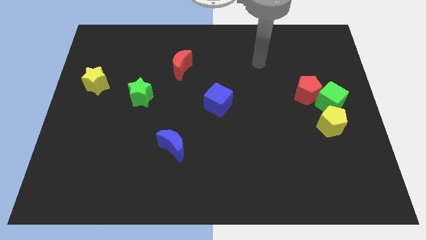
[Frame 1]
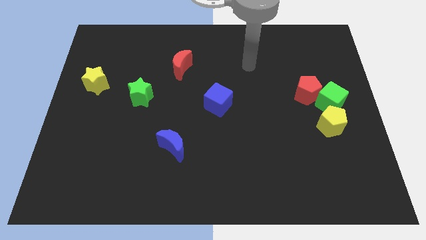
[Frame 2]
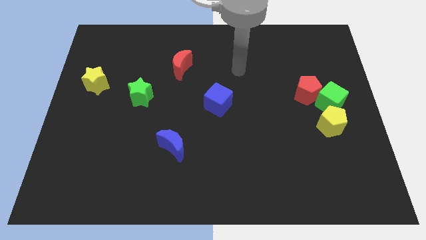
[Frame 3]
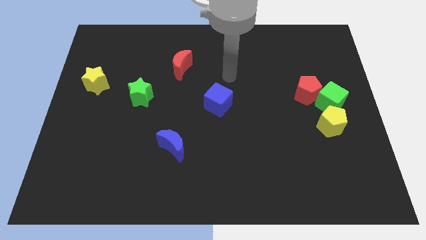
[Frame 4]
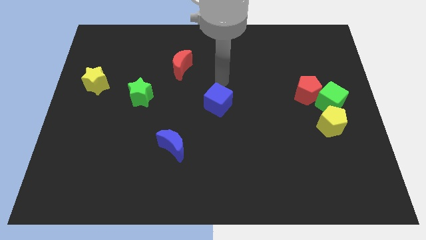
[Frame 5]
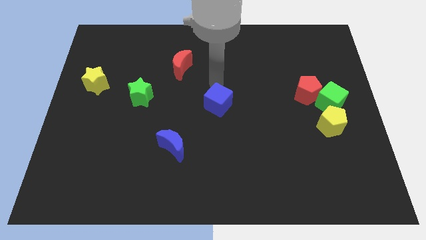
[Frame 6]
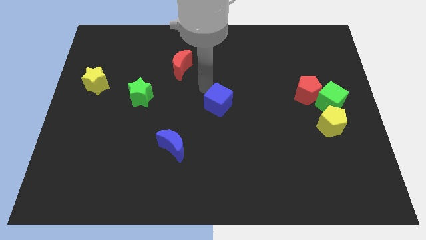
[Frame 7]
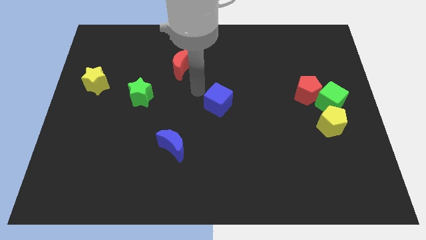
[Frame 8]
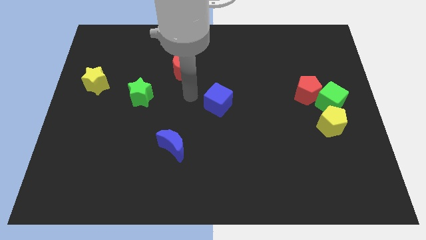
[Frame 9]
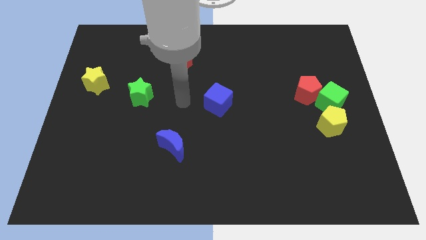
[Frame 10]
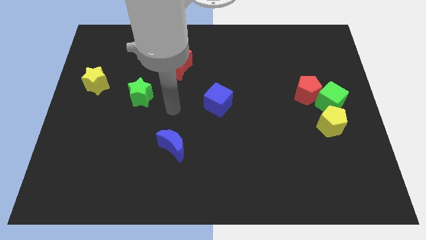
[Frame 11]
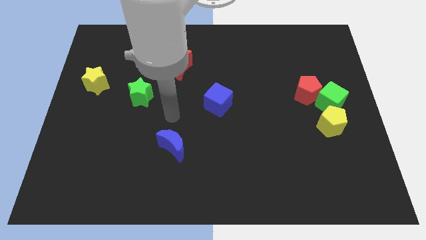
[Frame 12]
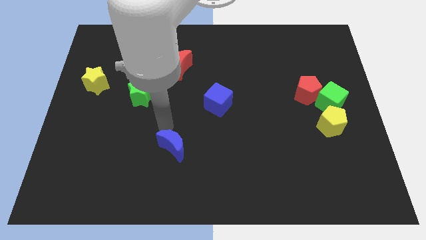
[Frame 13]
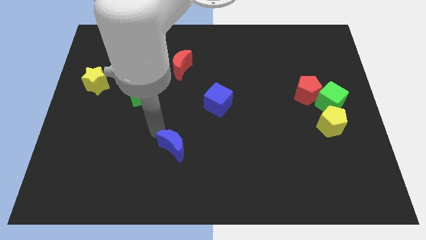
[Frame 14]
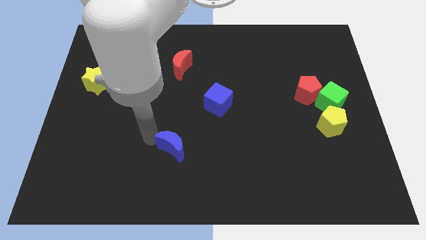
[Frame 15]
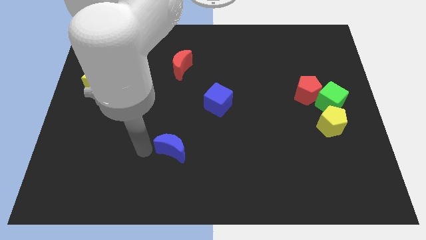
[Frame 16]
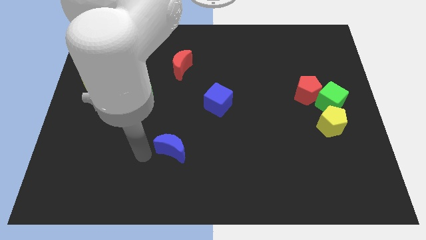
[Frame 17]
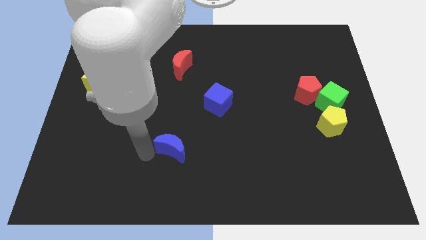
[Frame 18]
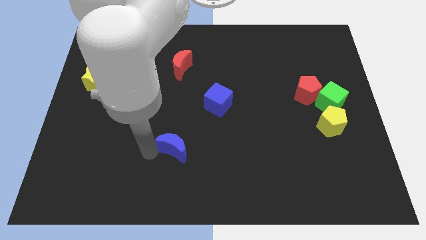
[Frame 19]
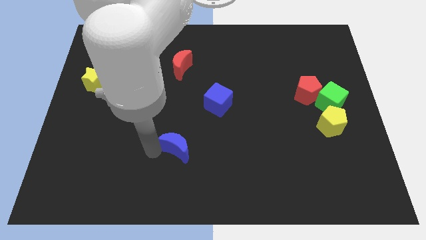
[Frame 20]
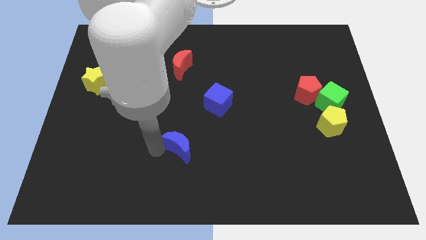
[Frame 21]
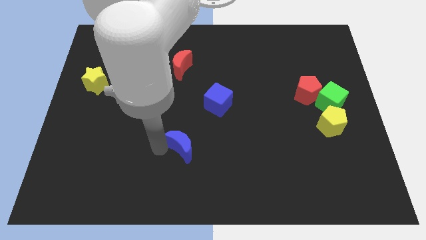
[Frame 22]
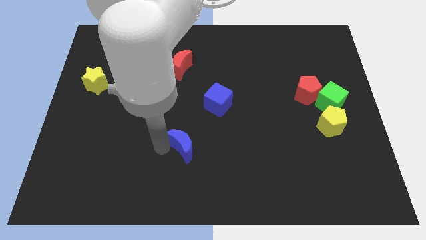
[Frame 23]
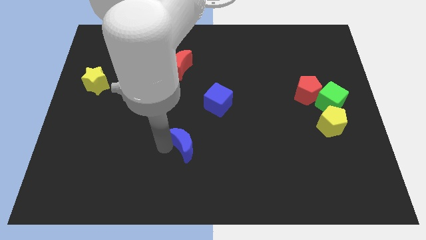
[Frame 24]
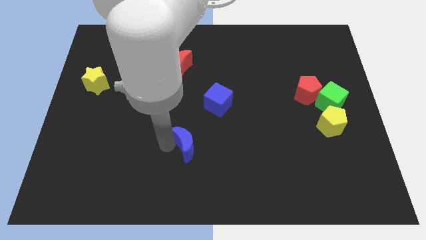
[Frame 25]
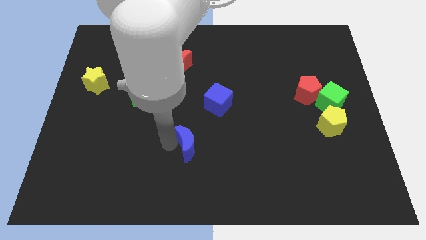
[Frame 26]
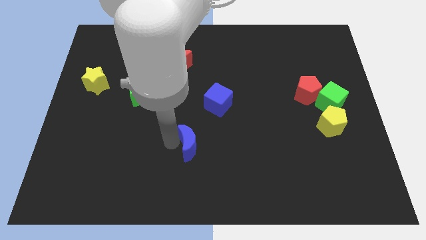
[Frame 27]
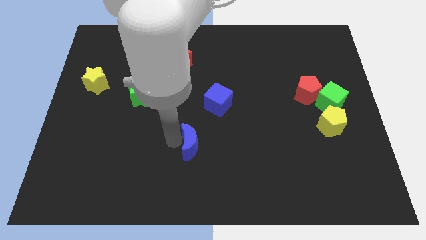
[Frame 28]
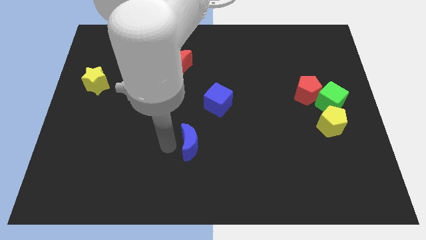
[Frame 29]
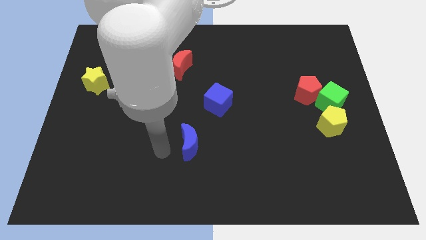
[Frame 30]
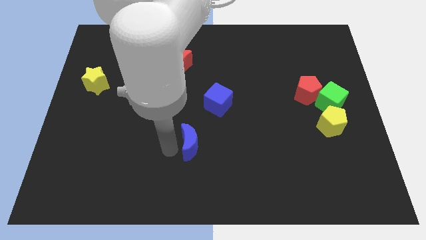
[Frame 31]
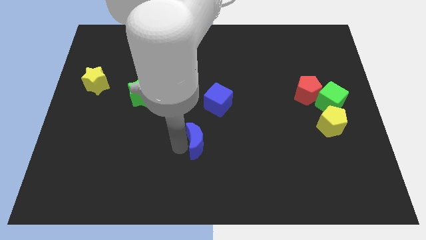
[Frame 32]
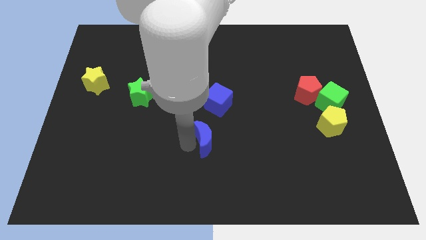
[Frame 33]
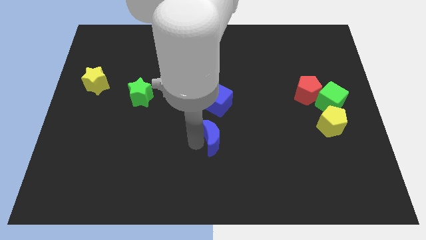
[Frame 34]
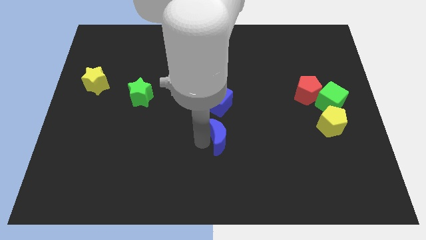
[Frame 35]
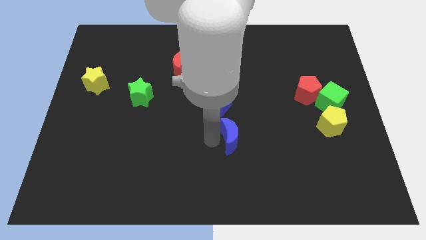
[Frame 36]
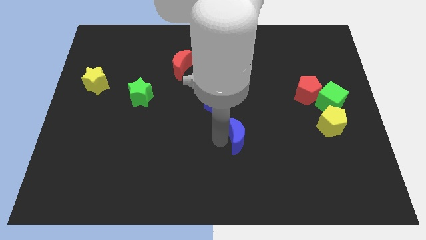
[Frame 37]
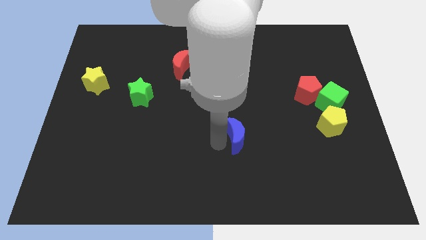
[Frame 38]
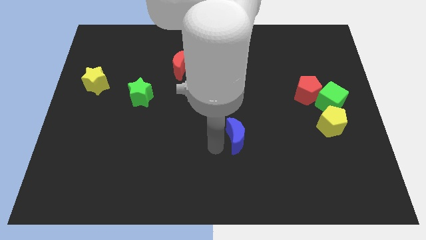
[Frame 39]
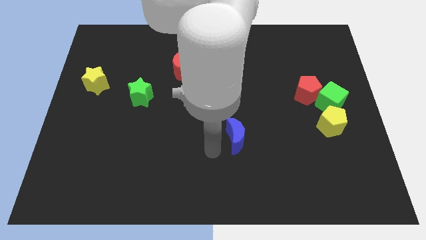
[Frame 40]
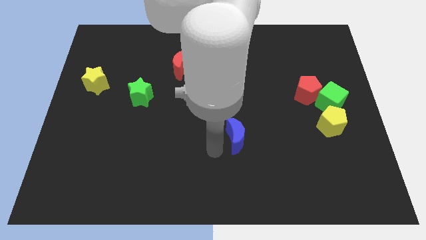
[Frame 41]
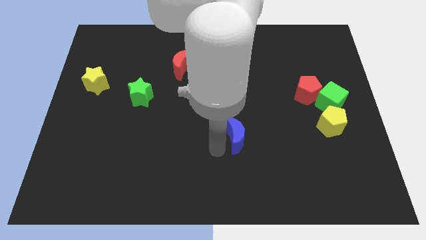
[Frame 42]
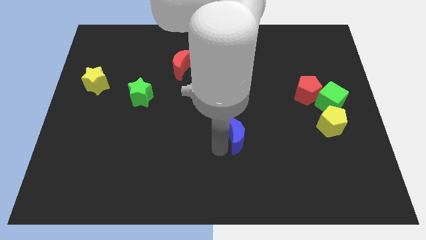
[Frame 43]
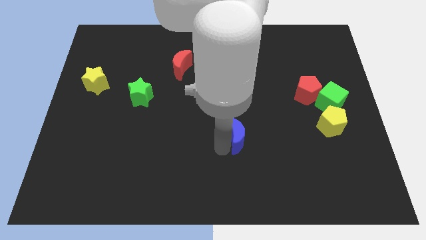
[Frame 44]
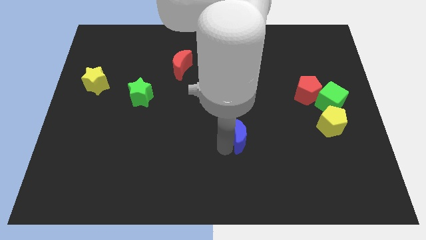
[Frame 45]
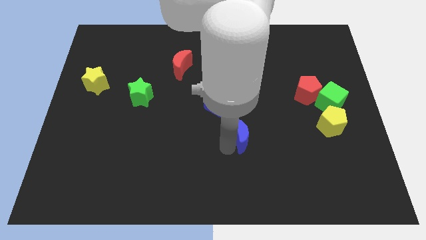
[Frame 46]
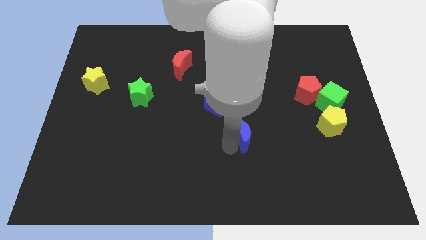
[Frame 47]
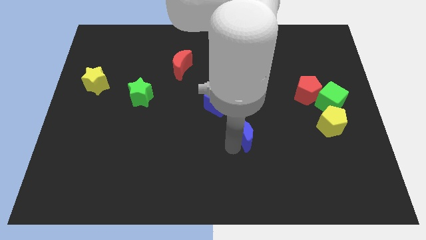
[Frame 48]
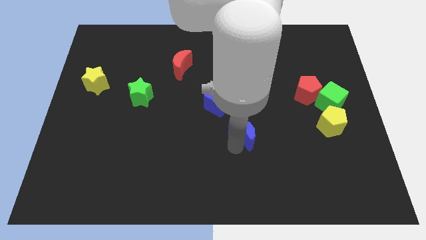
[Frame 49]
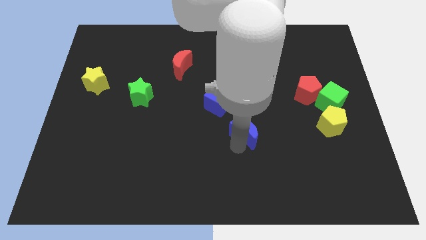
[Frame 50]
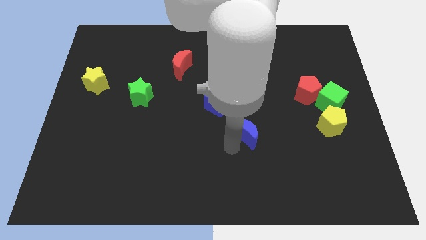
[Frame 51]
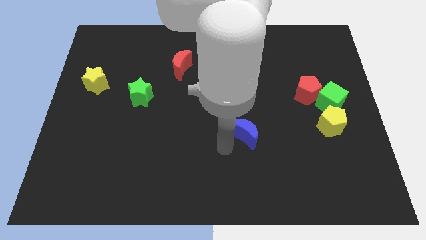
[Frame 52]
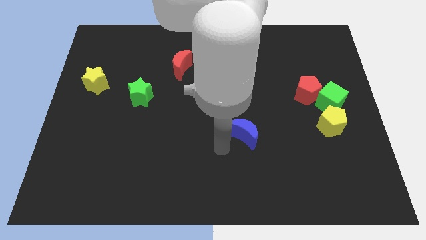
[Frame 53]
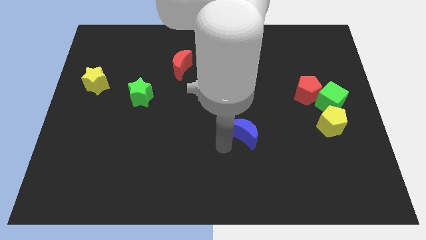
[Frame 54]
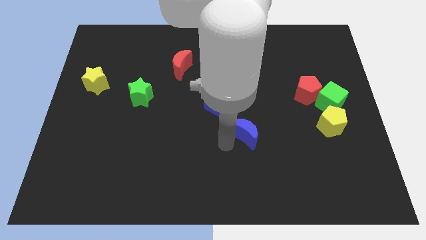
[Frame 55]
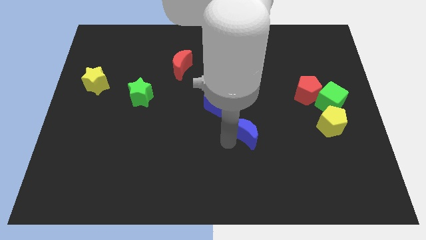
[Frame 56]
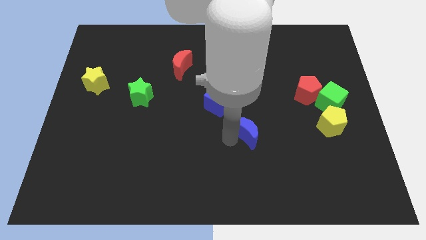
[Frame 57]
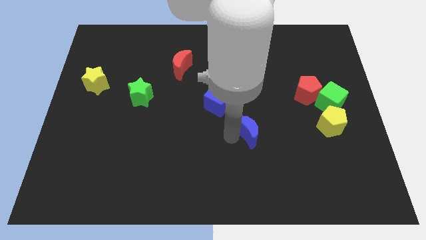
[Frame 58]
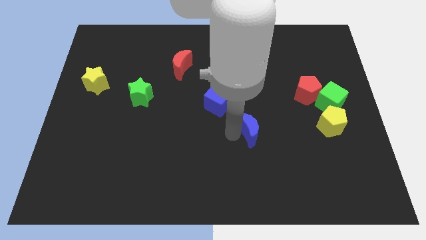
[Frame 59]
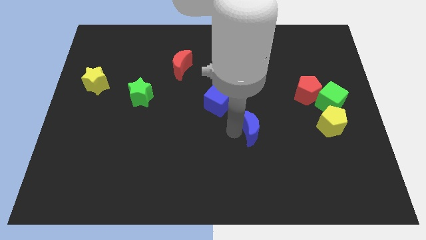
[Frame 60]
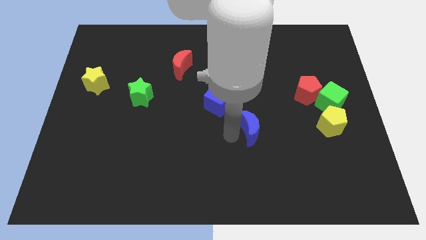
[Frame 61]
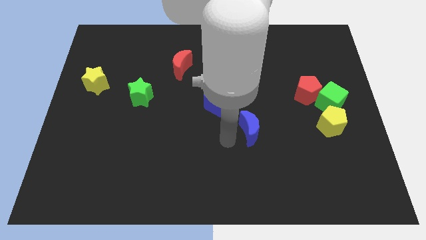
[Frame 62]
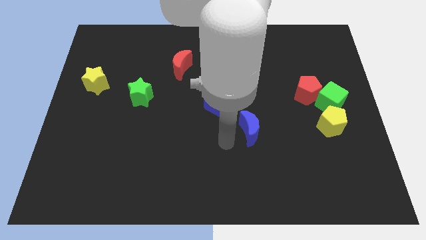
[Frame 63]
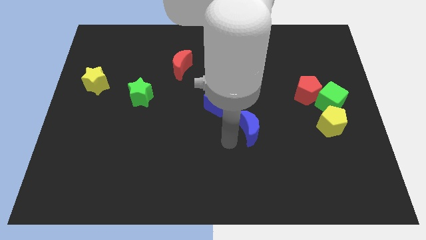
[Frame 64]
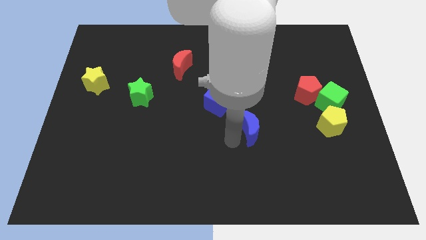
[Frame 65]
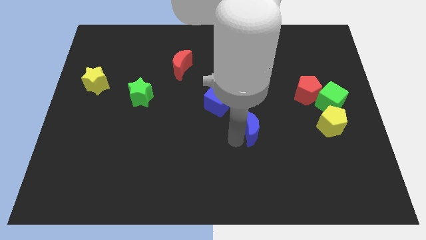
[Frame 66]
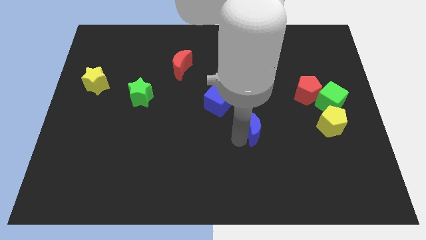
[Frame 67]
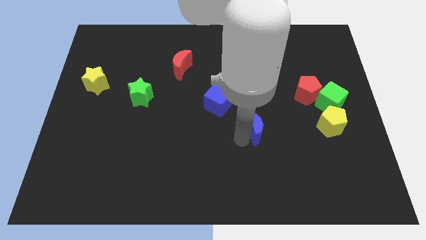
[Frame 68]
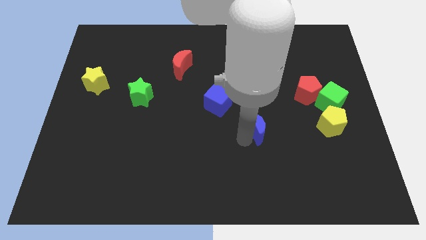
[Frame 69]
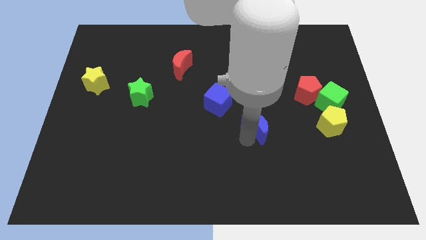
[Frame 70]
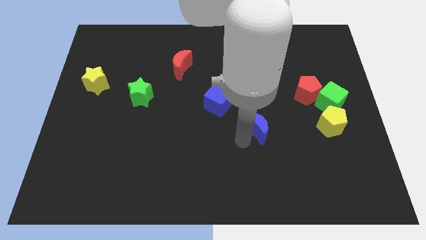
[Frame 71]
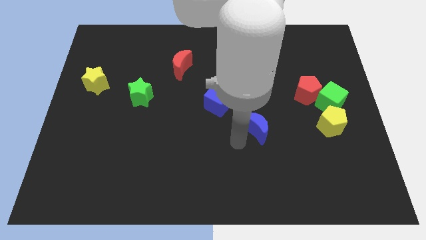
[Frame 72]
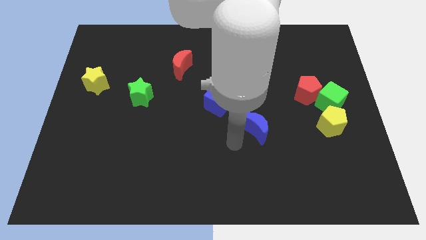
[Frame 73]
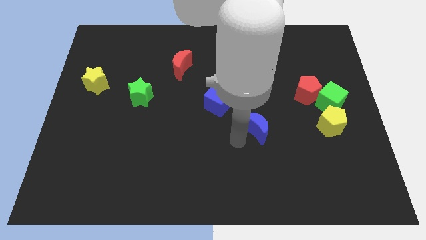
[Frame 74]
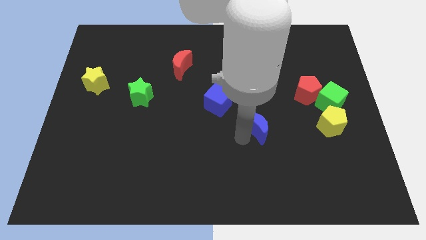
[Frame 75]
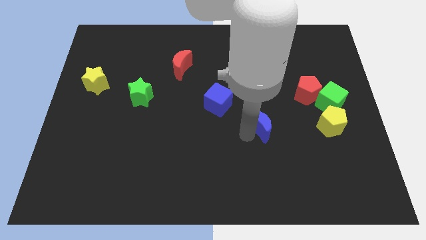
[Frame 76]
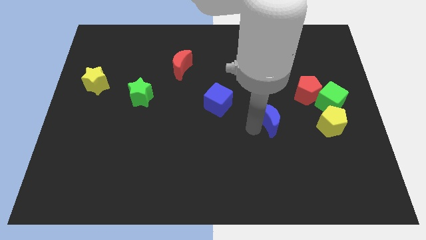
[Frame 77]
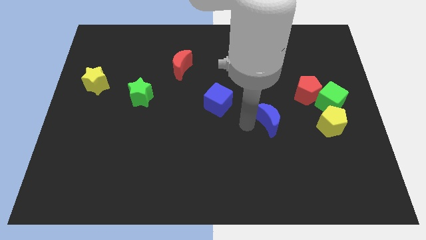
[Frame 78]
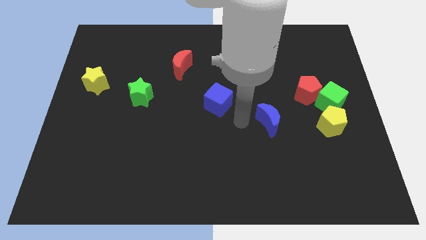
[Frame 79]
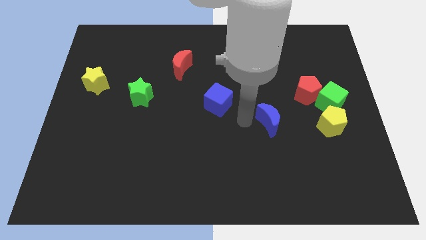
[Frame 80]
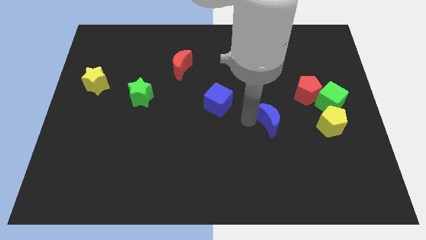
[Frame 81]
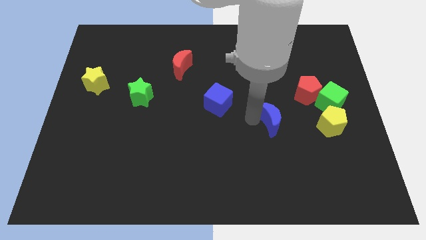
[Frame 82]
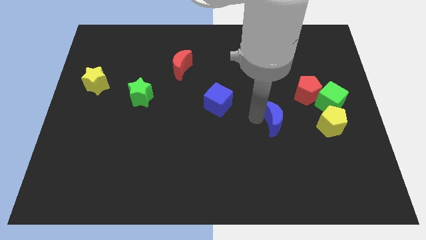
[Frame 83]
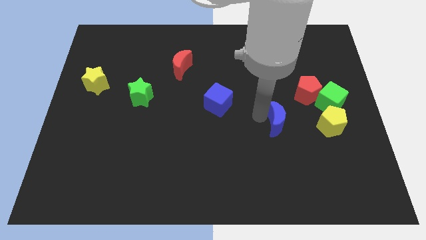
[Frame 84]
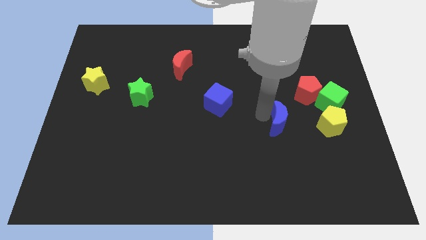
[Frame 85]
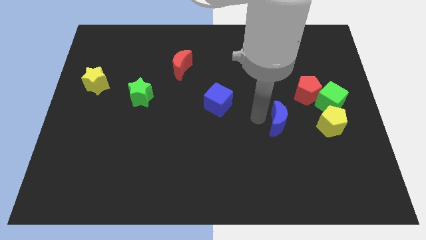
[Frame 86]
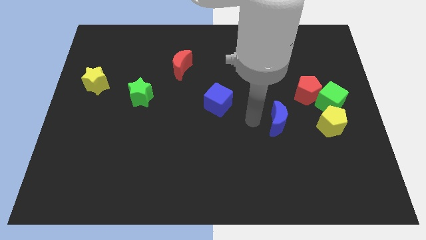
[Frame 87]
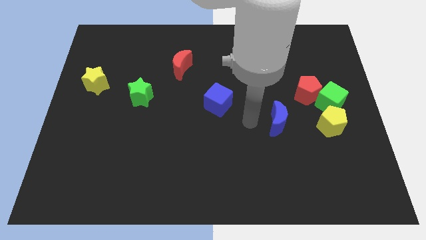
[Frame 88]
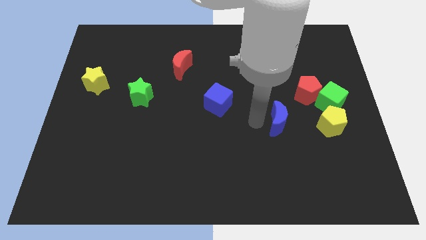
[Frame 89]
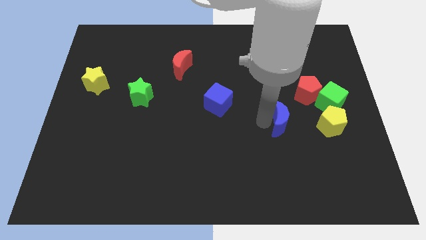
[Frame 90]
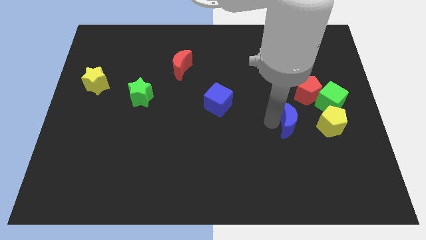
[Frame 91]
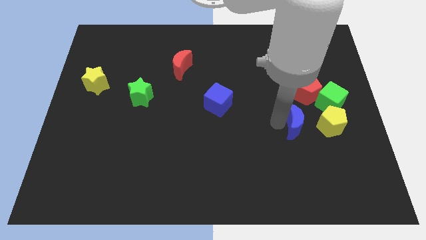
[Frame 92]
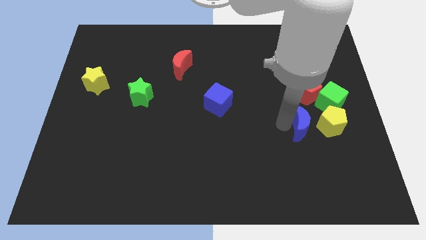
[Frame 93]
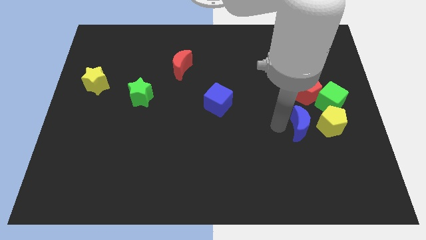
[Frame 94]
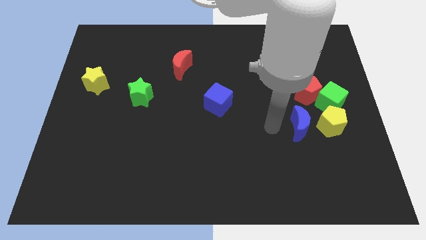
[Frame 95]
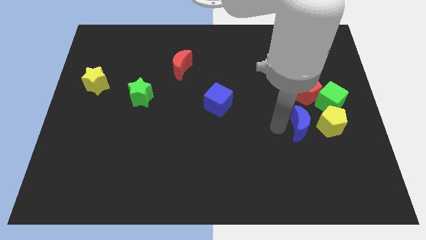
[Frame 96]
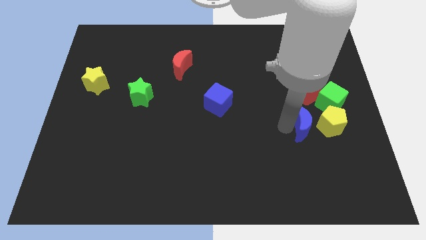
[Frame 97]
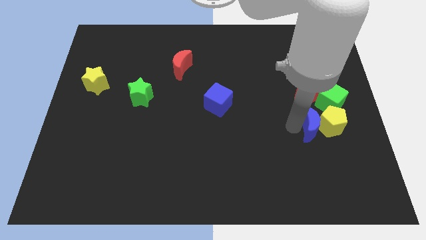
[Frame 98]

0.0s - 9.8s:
slide the blue moon close to the yellow pentagon
